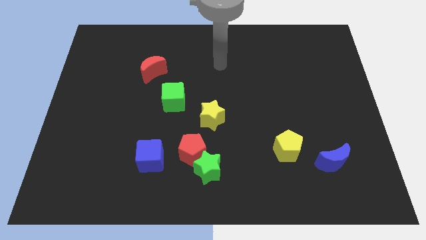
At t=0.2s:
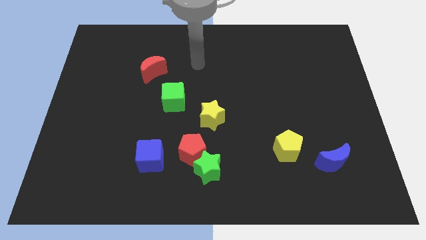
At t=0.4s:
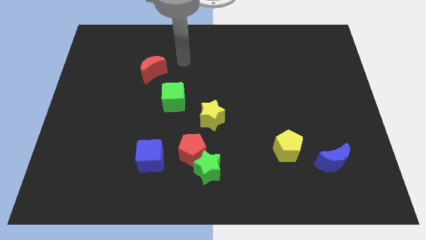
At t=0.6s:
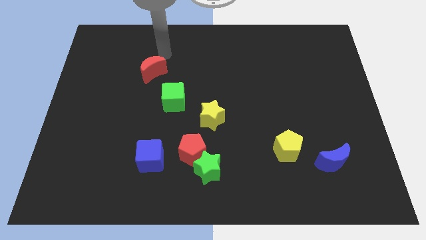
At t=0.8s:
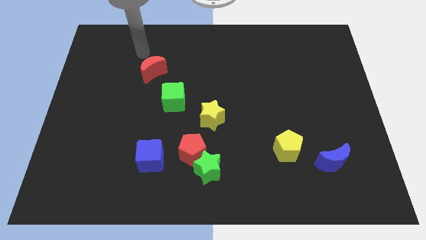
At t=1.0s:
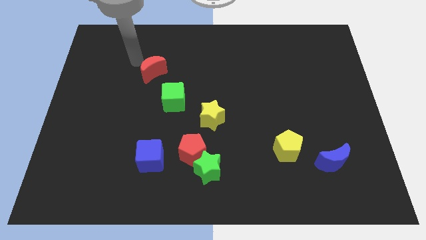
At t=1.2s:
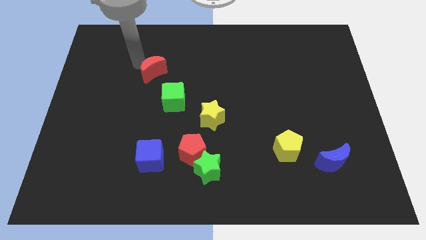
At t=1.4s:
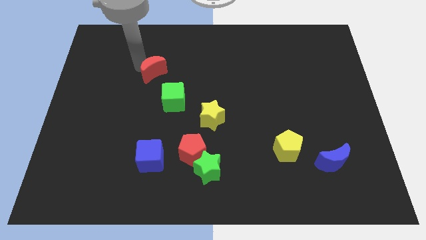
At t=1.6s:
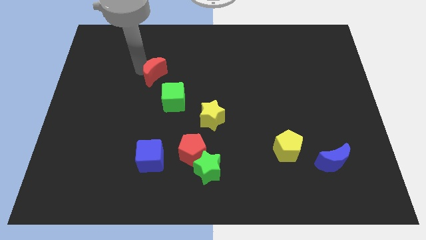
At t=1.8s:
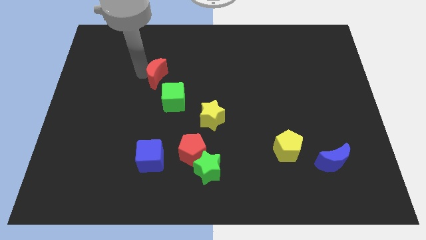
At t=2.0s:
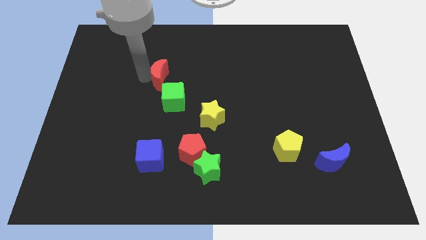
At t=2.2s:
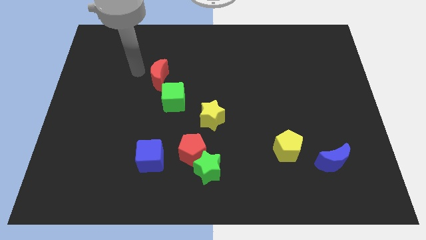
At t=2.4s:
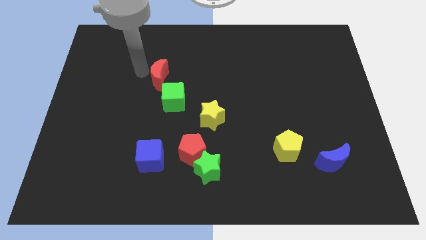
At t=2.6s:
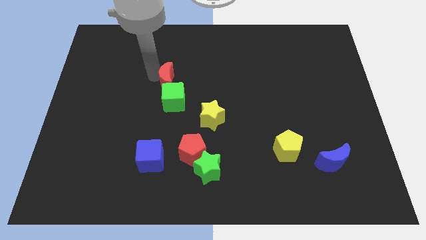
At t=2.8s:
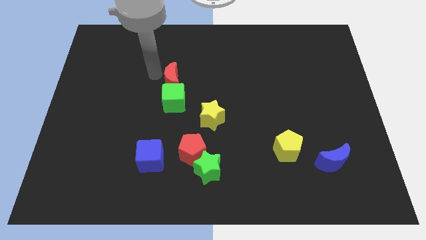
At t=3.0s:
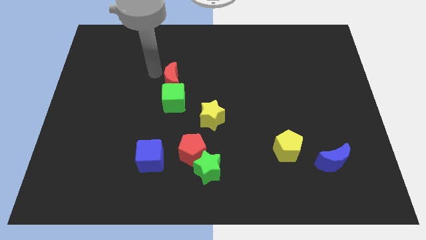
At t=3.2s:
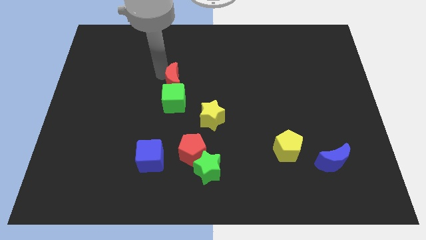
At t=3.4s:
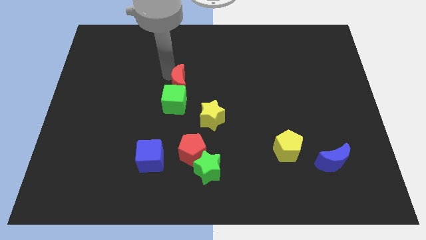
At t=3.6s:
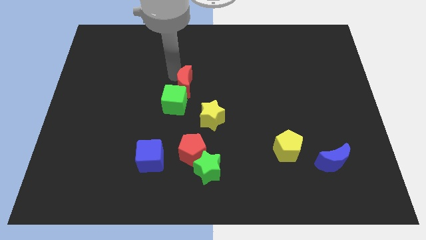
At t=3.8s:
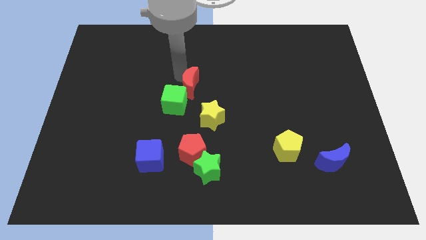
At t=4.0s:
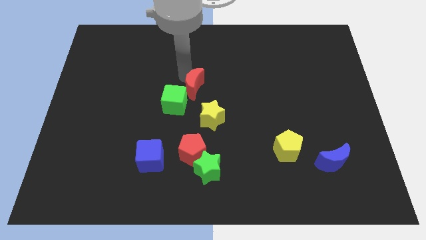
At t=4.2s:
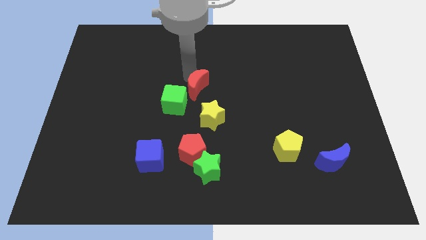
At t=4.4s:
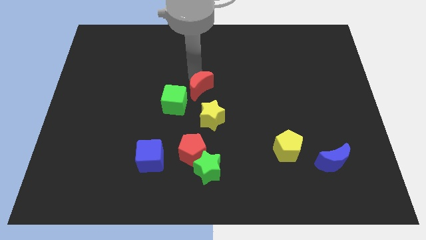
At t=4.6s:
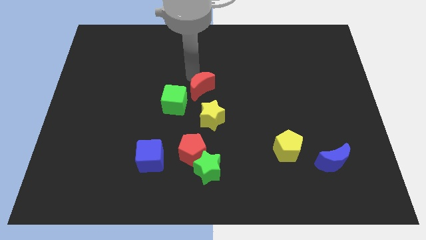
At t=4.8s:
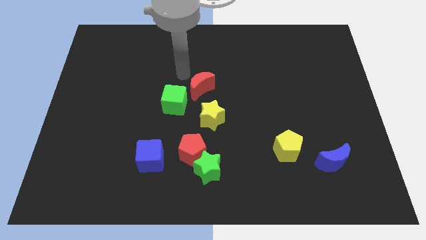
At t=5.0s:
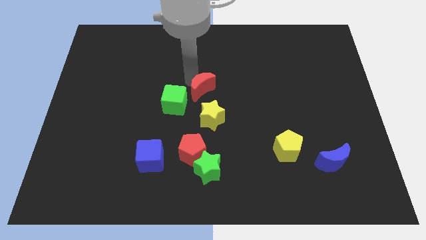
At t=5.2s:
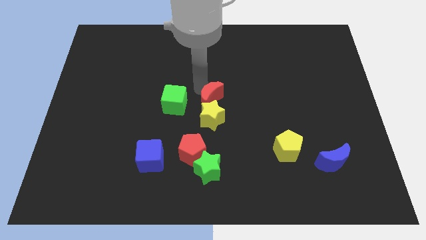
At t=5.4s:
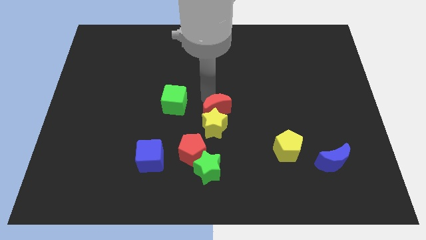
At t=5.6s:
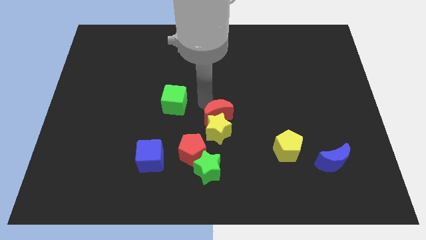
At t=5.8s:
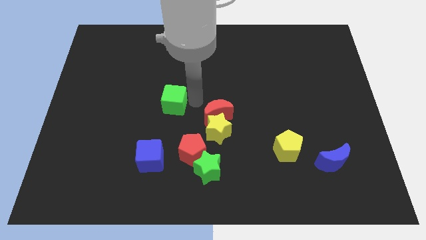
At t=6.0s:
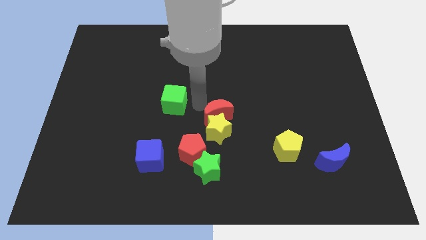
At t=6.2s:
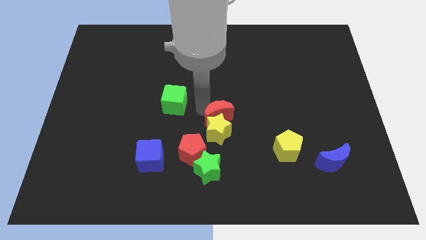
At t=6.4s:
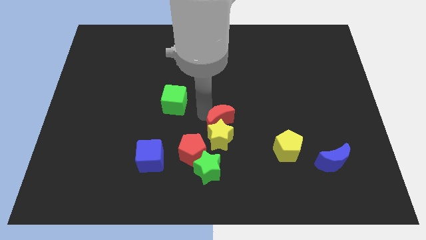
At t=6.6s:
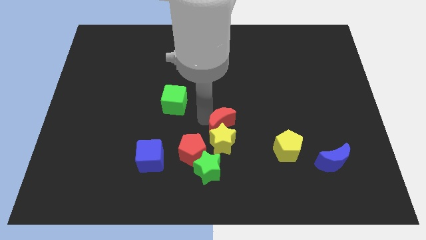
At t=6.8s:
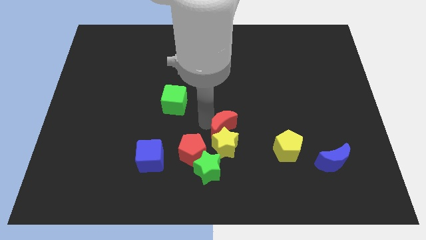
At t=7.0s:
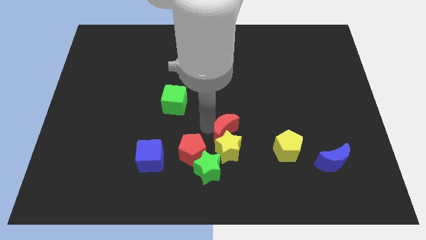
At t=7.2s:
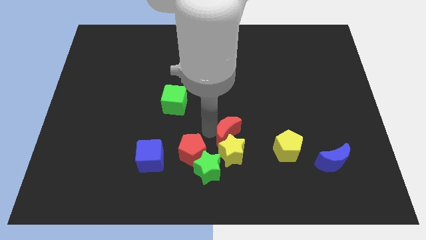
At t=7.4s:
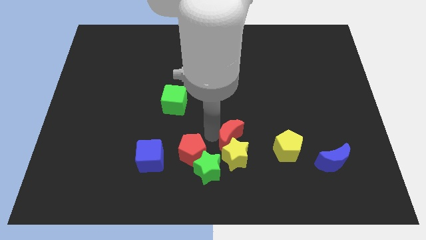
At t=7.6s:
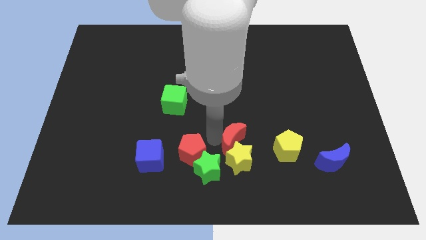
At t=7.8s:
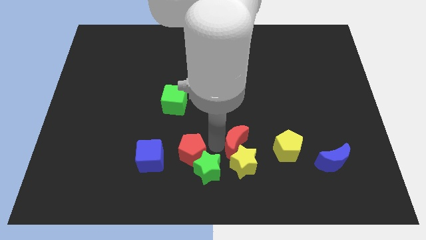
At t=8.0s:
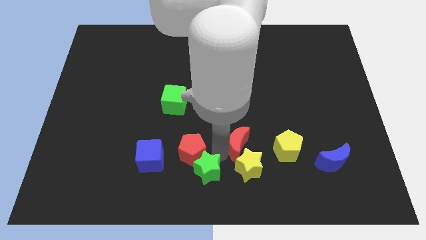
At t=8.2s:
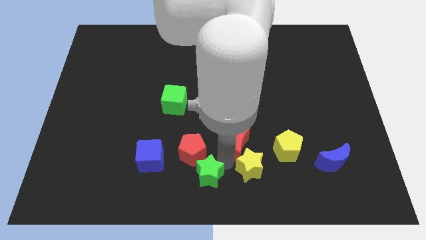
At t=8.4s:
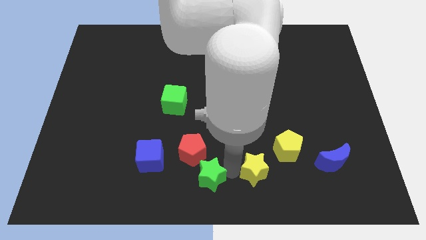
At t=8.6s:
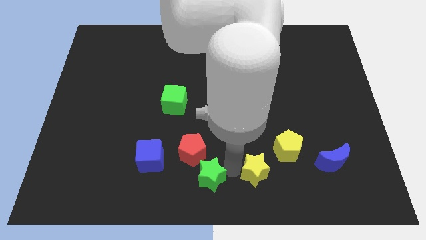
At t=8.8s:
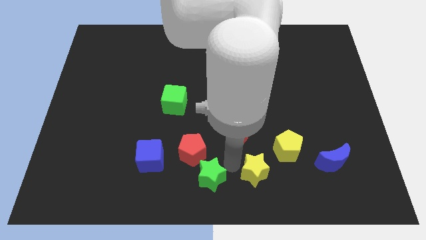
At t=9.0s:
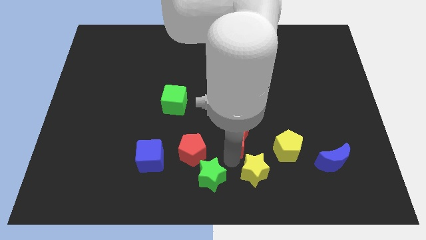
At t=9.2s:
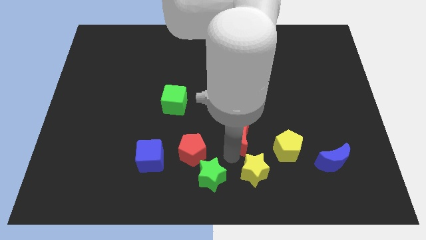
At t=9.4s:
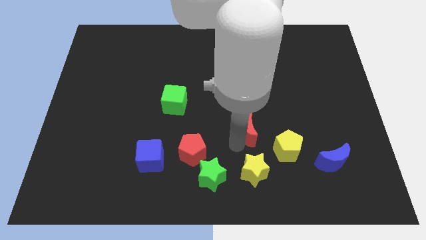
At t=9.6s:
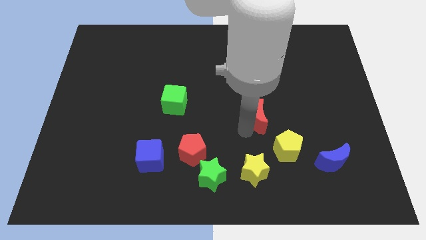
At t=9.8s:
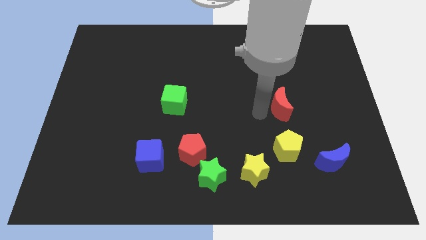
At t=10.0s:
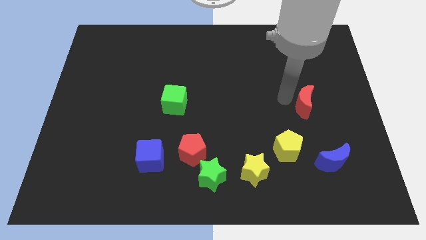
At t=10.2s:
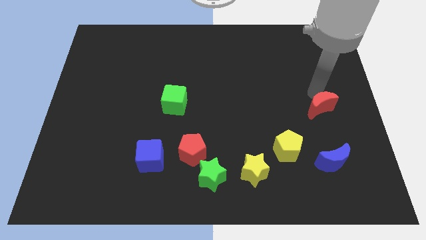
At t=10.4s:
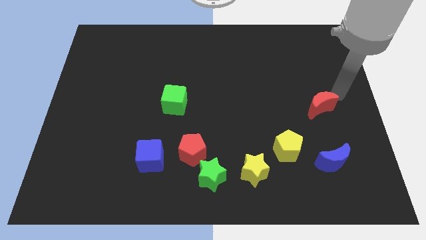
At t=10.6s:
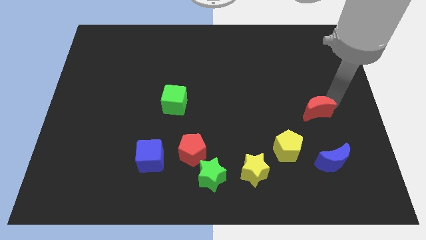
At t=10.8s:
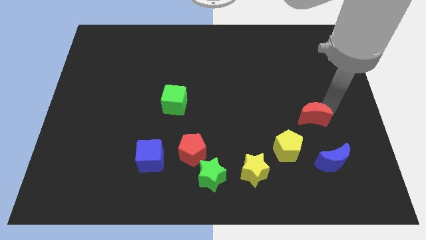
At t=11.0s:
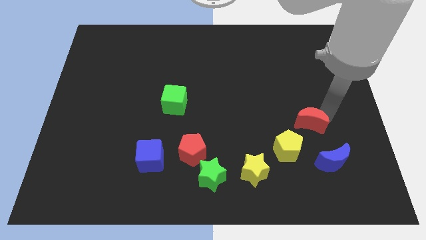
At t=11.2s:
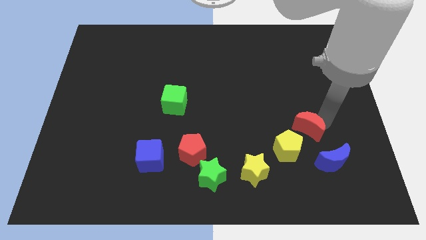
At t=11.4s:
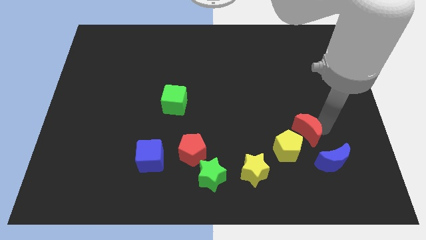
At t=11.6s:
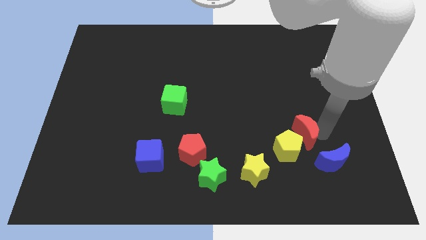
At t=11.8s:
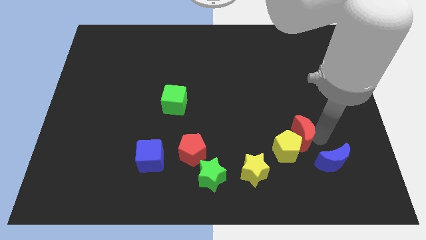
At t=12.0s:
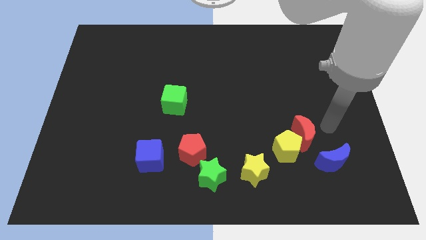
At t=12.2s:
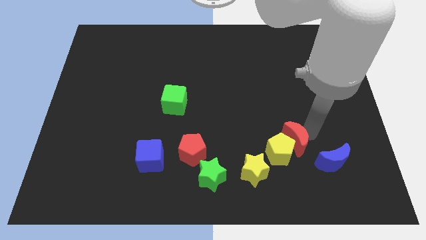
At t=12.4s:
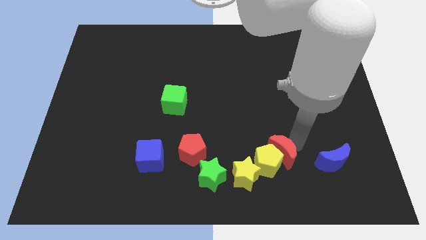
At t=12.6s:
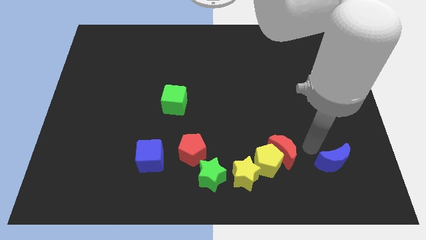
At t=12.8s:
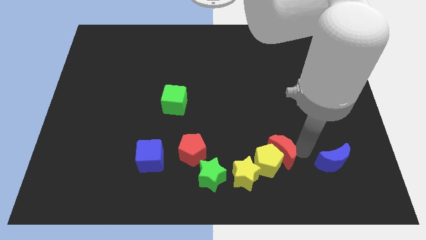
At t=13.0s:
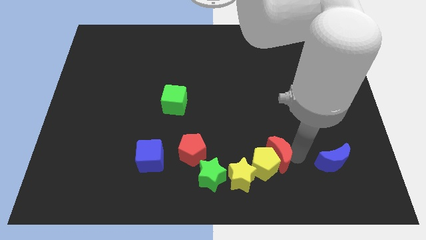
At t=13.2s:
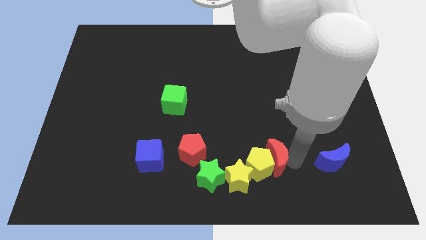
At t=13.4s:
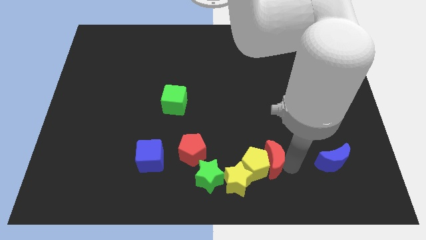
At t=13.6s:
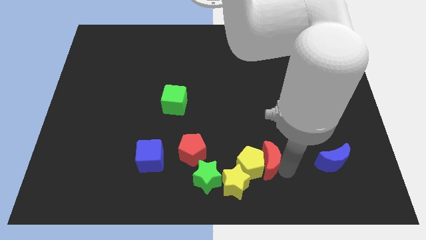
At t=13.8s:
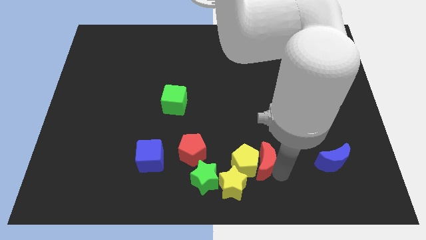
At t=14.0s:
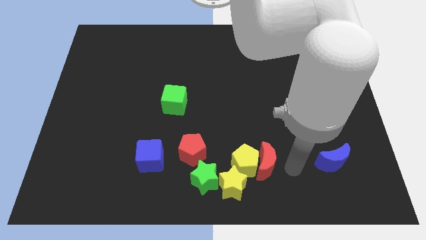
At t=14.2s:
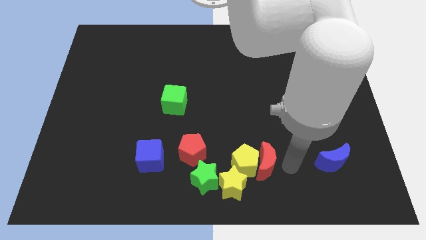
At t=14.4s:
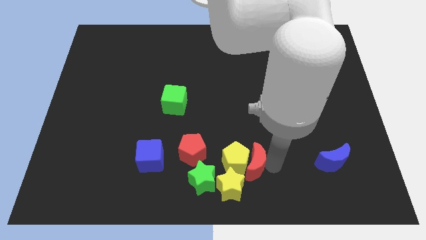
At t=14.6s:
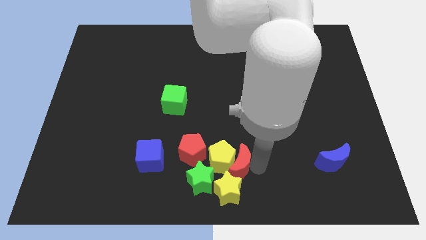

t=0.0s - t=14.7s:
move the red moon to the bottom right side of the red pentagon

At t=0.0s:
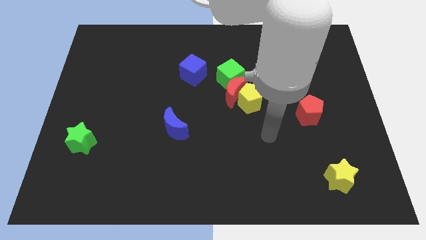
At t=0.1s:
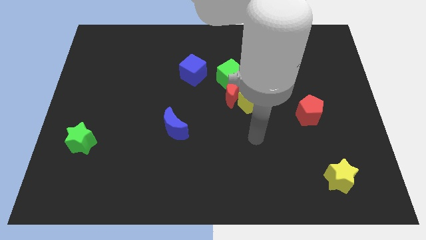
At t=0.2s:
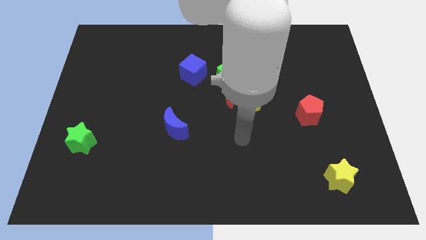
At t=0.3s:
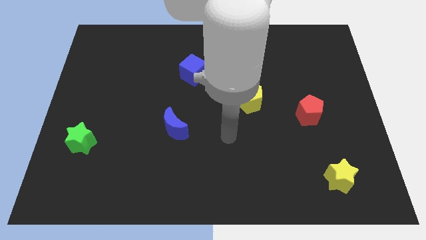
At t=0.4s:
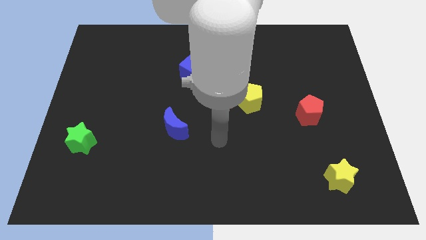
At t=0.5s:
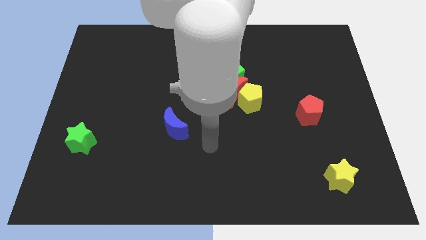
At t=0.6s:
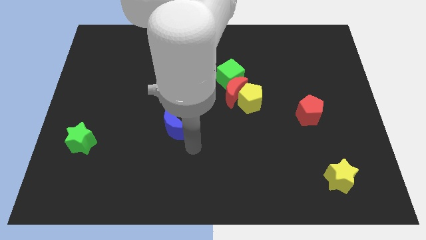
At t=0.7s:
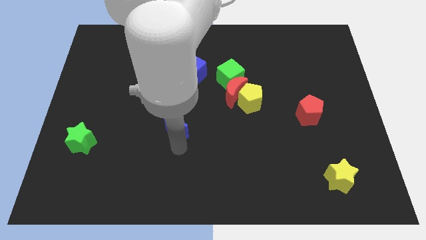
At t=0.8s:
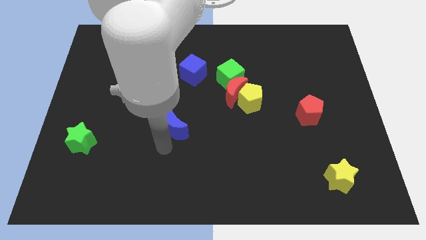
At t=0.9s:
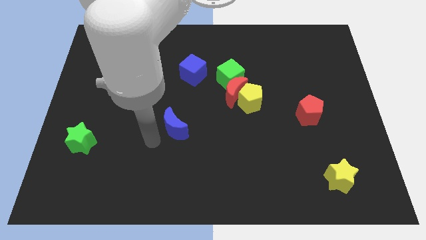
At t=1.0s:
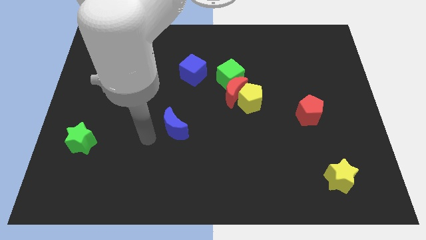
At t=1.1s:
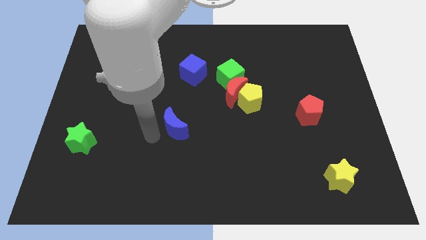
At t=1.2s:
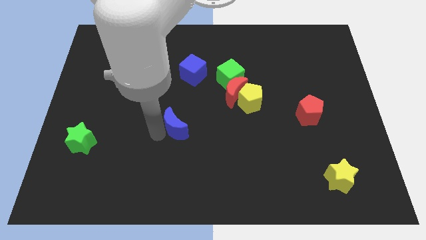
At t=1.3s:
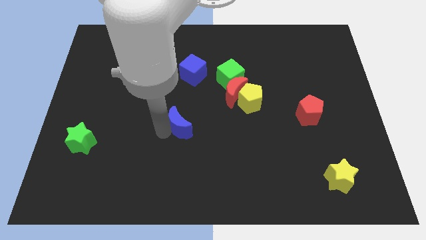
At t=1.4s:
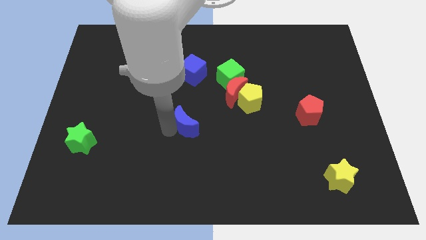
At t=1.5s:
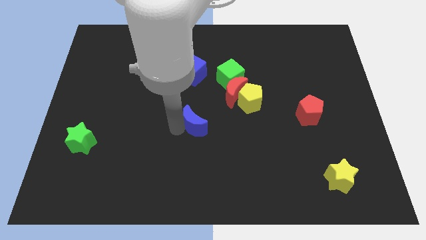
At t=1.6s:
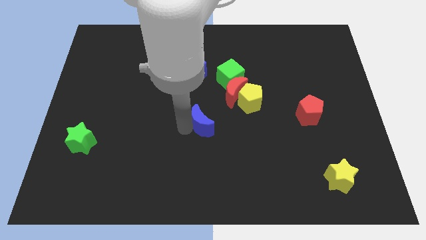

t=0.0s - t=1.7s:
slide the blue moon to the bottom left of the red moon
